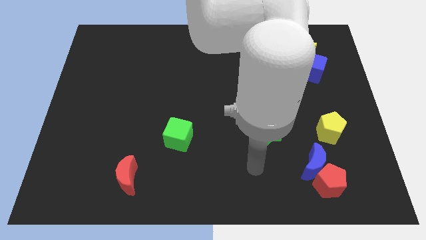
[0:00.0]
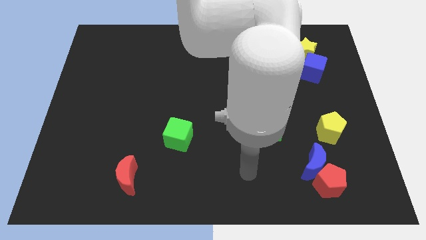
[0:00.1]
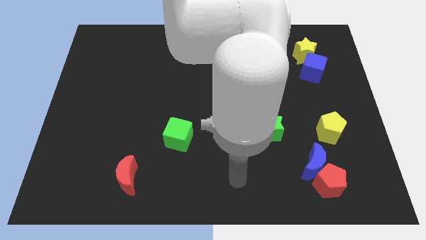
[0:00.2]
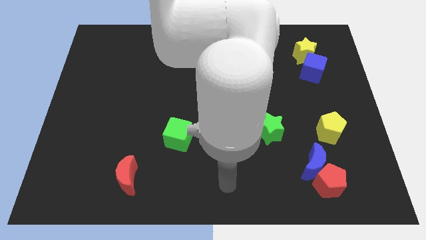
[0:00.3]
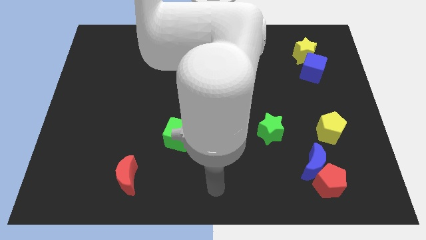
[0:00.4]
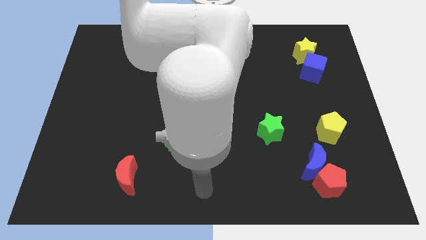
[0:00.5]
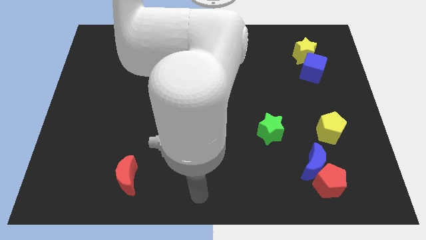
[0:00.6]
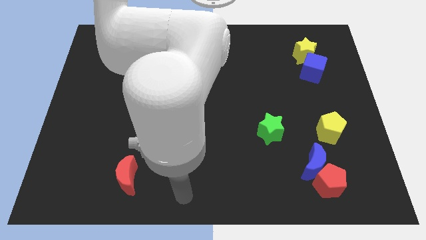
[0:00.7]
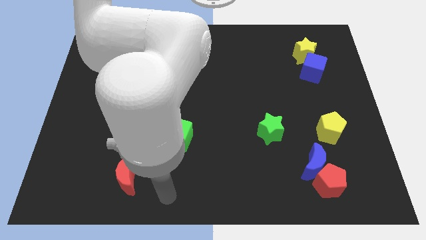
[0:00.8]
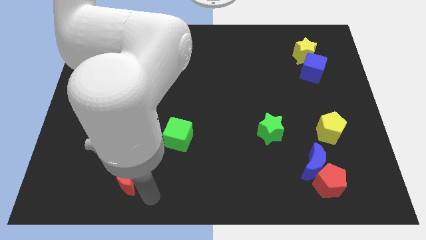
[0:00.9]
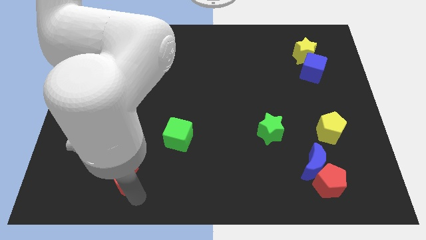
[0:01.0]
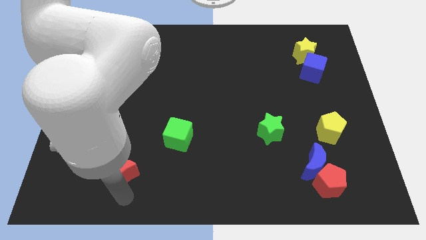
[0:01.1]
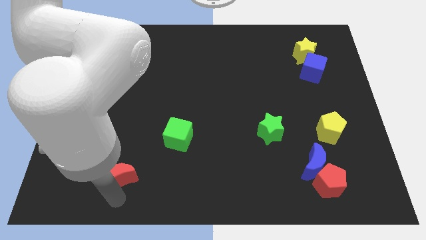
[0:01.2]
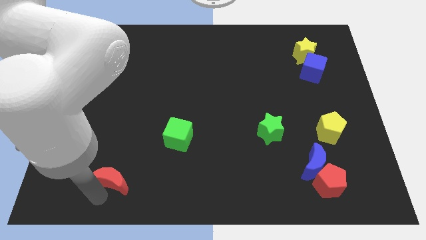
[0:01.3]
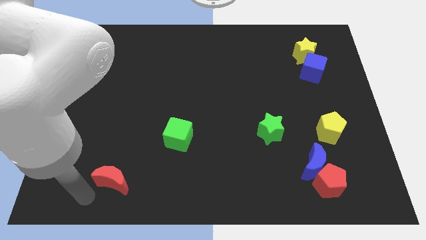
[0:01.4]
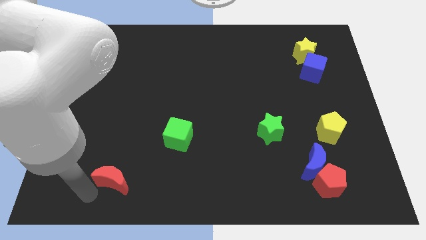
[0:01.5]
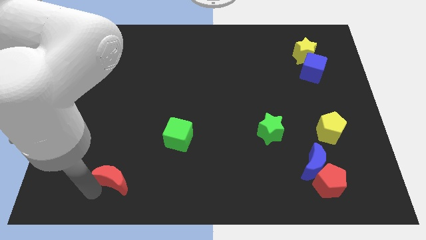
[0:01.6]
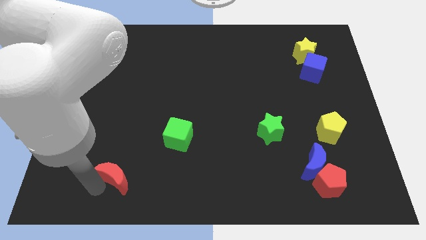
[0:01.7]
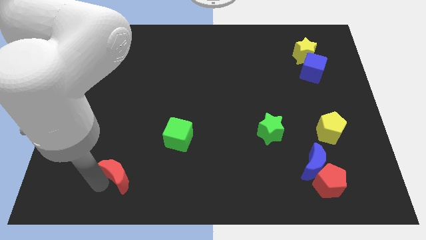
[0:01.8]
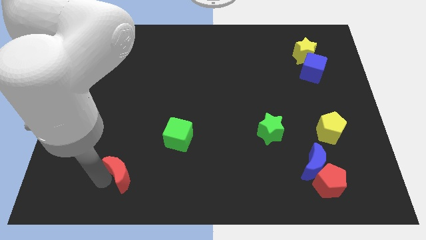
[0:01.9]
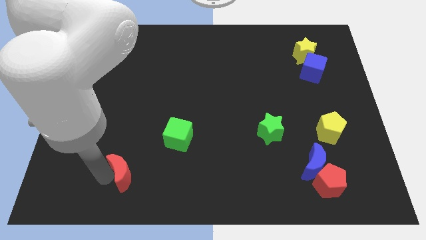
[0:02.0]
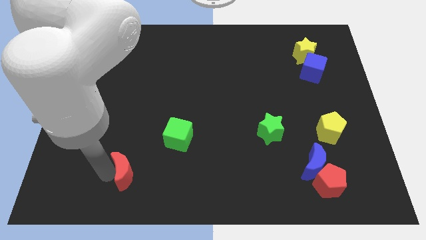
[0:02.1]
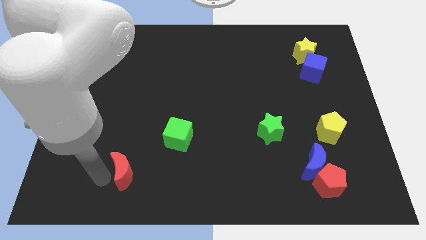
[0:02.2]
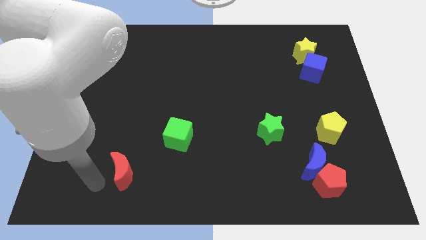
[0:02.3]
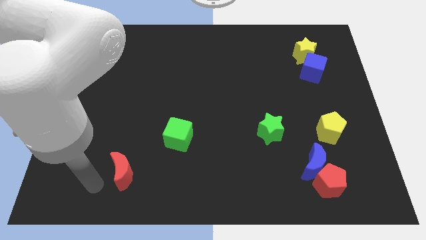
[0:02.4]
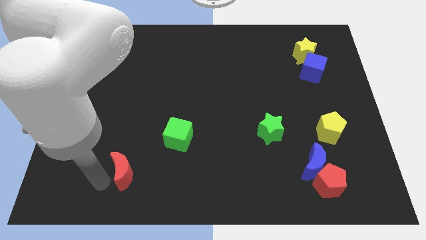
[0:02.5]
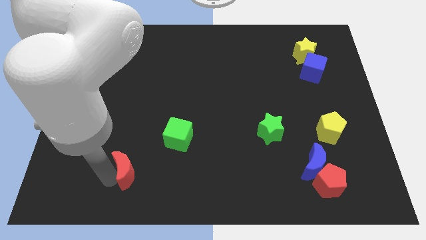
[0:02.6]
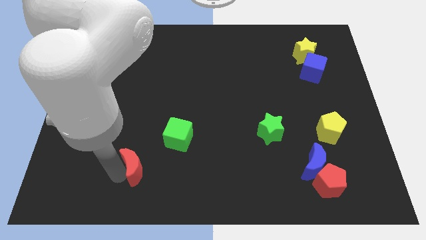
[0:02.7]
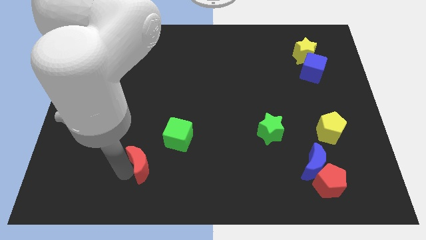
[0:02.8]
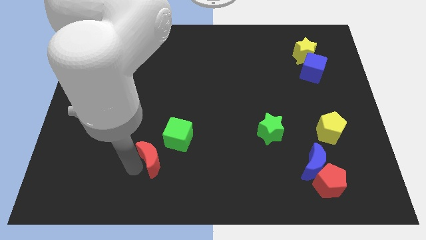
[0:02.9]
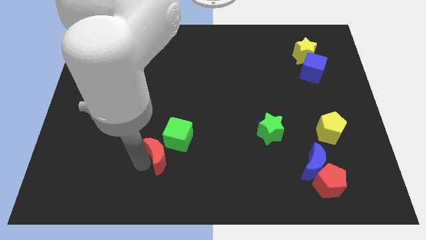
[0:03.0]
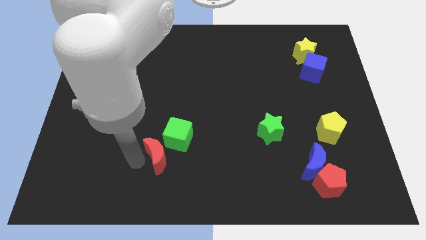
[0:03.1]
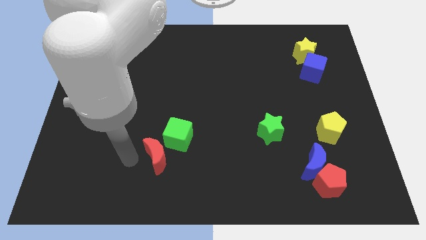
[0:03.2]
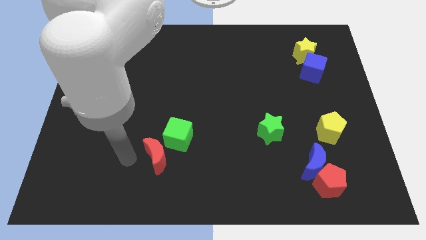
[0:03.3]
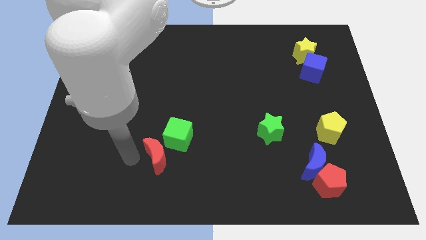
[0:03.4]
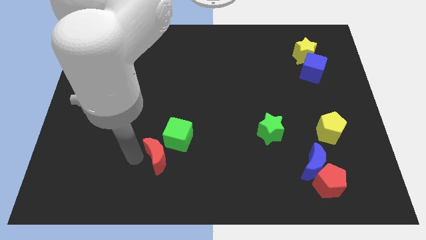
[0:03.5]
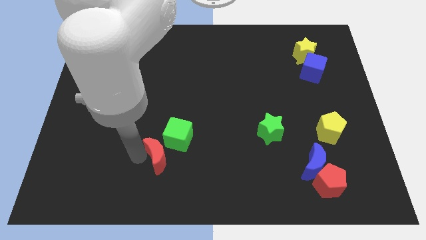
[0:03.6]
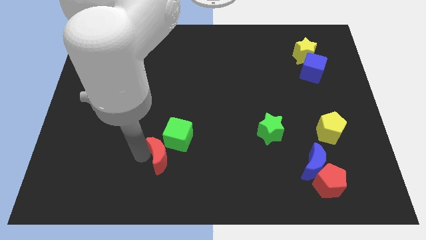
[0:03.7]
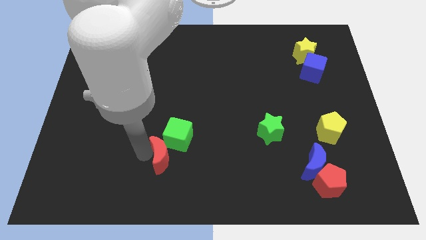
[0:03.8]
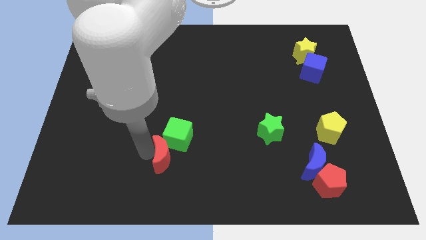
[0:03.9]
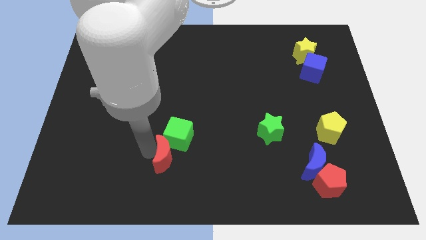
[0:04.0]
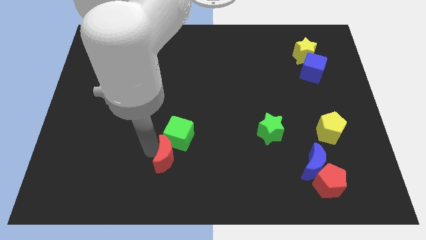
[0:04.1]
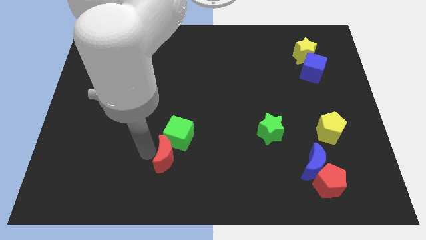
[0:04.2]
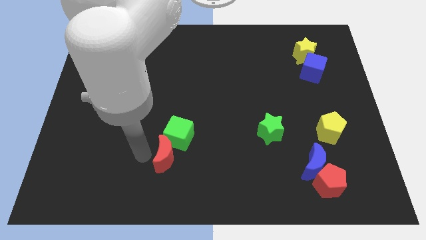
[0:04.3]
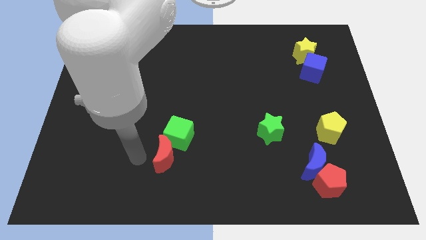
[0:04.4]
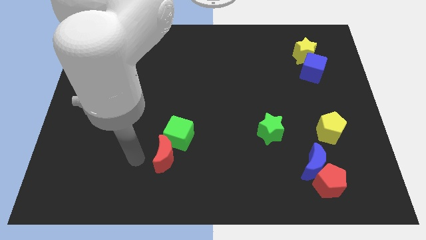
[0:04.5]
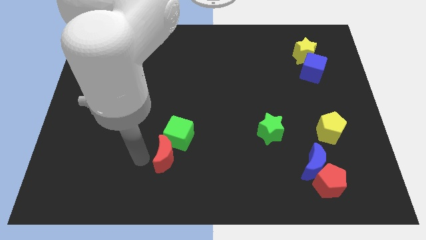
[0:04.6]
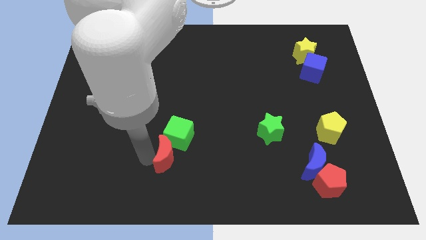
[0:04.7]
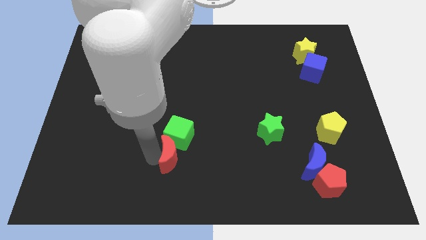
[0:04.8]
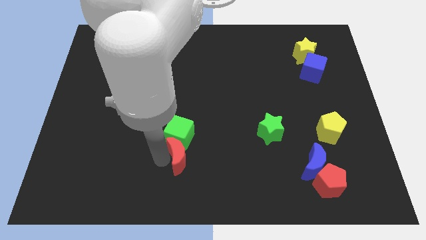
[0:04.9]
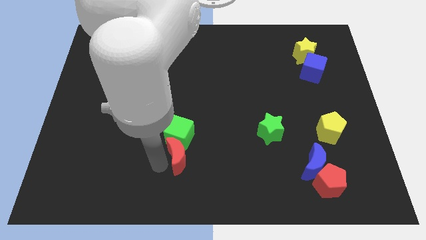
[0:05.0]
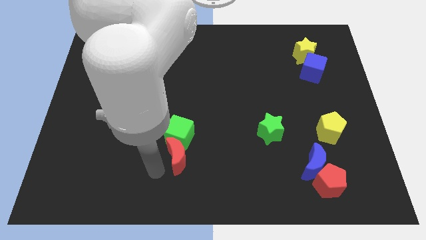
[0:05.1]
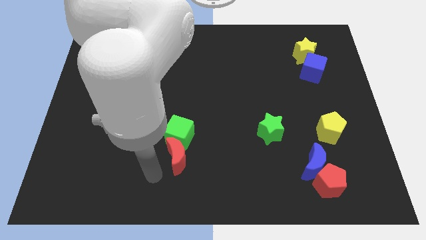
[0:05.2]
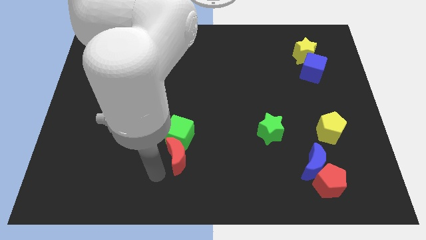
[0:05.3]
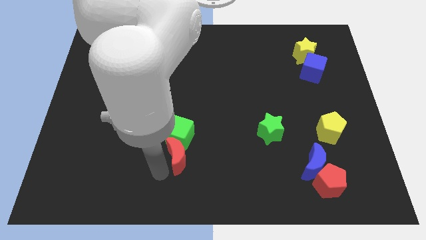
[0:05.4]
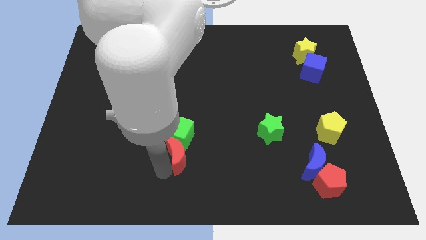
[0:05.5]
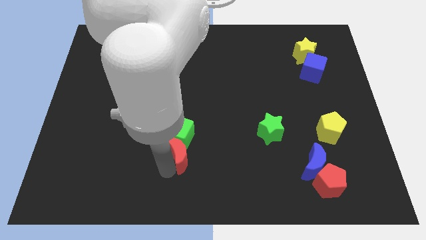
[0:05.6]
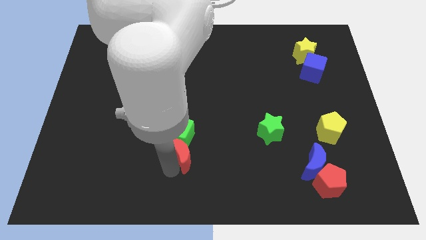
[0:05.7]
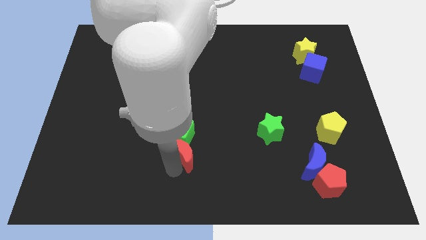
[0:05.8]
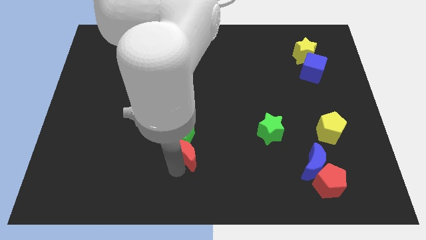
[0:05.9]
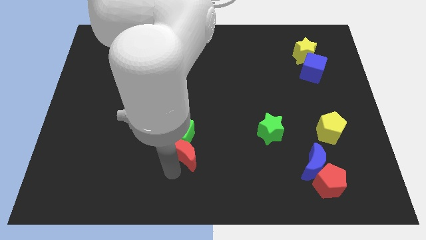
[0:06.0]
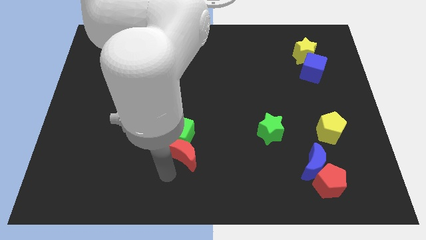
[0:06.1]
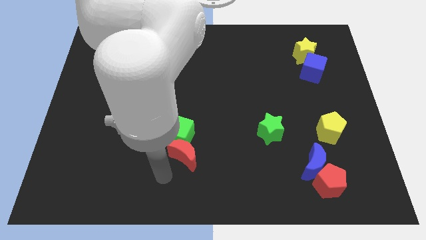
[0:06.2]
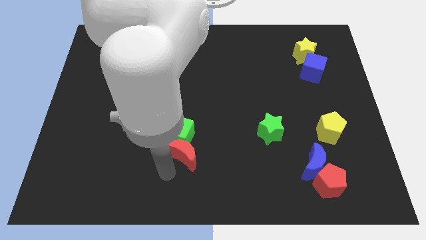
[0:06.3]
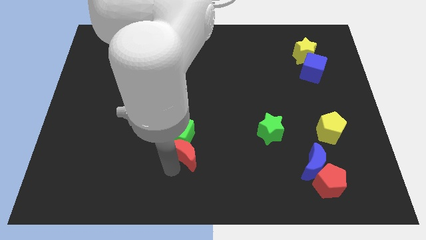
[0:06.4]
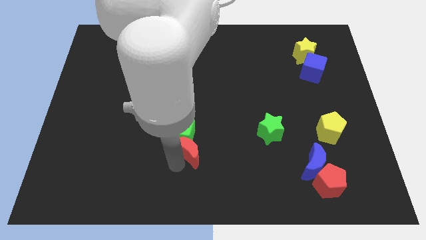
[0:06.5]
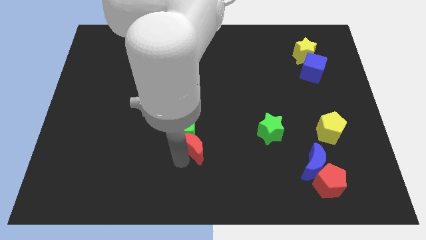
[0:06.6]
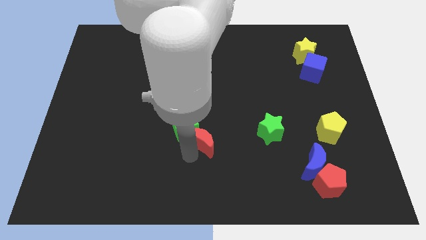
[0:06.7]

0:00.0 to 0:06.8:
push the red moon to the center of the board
